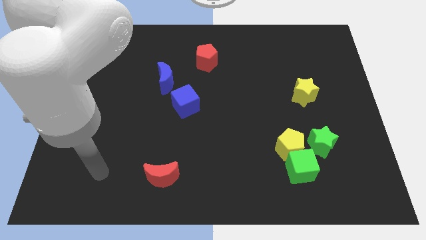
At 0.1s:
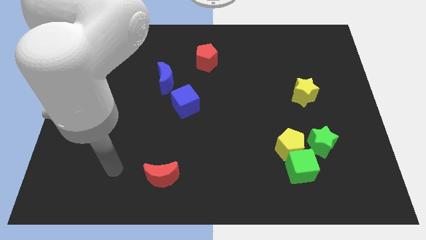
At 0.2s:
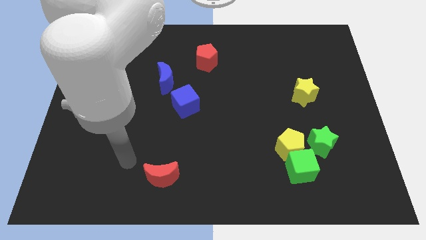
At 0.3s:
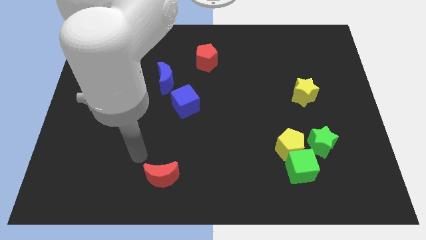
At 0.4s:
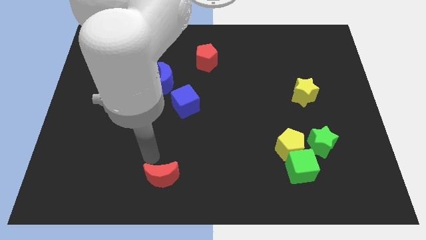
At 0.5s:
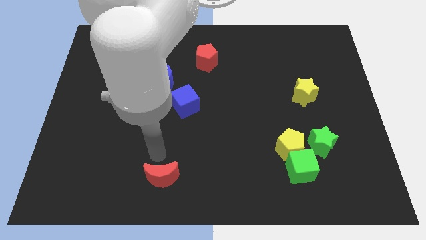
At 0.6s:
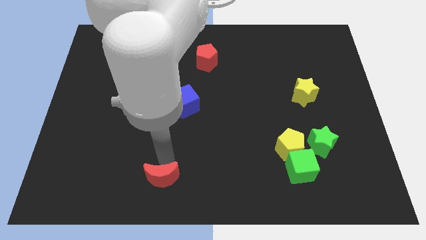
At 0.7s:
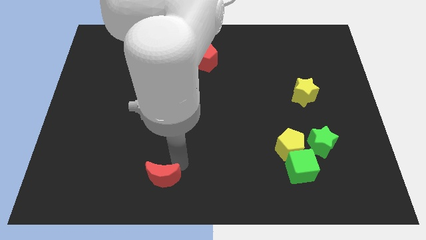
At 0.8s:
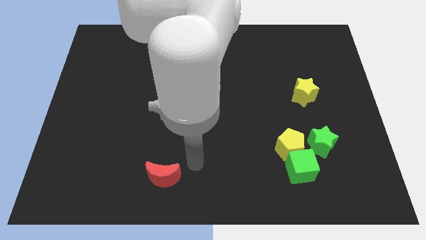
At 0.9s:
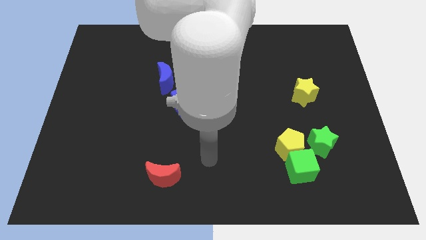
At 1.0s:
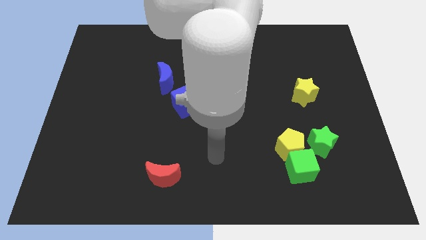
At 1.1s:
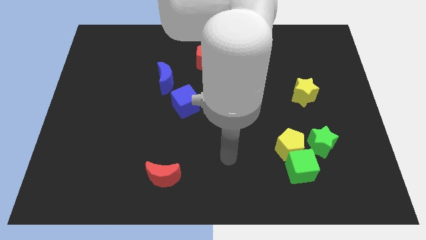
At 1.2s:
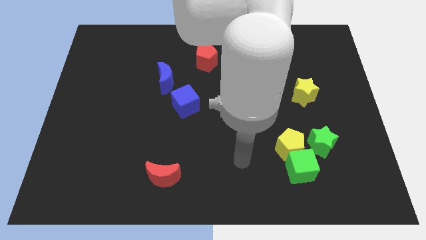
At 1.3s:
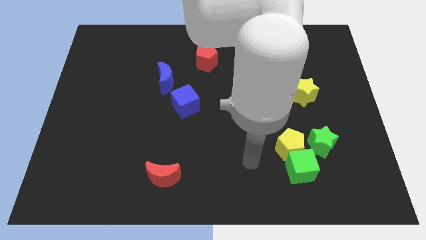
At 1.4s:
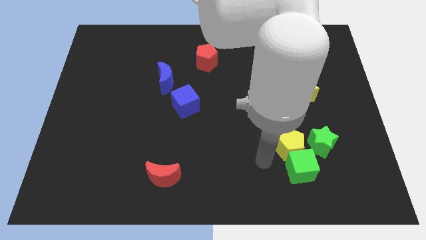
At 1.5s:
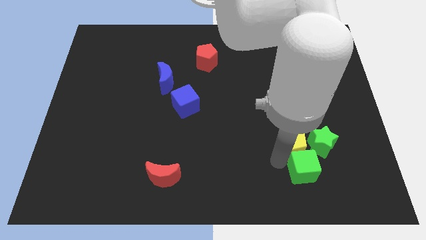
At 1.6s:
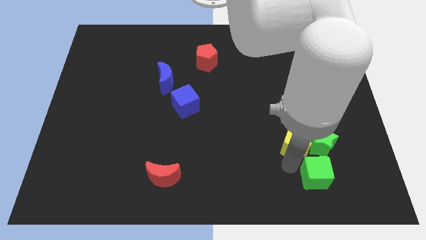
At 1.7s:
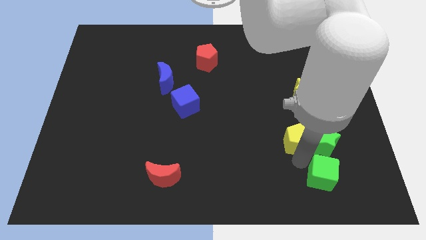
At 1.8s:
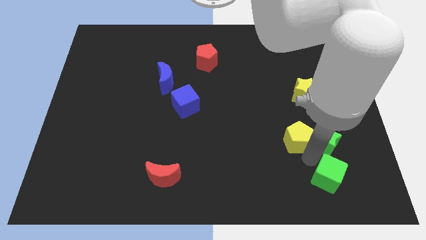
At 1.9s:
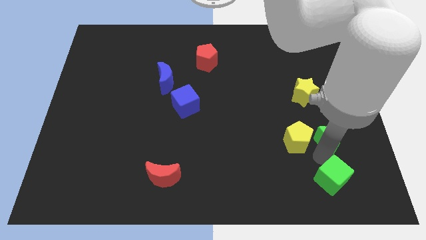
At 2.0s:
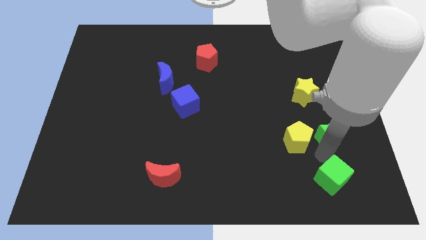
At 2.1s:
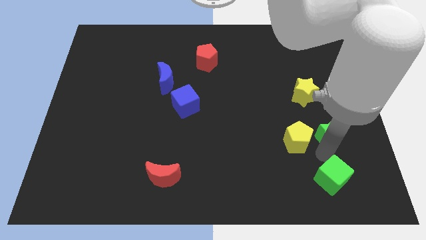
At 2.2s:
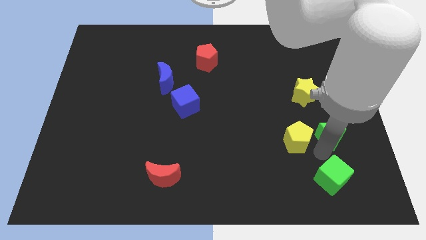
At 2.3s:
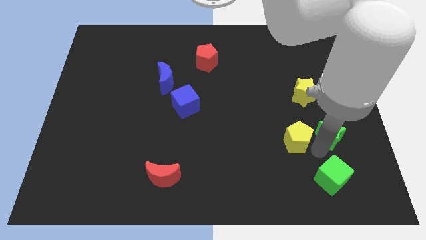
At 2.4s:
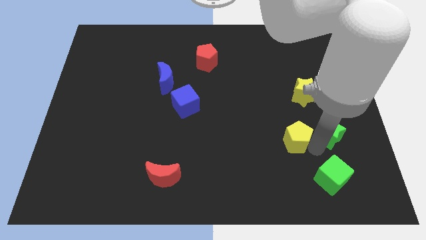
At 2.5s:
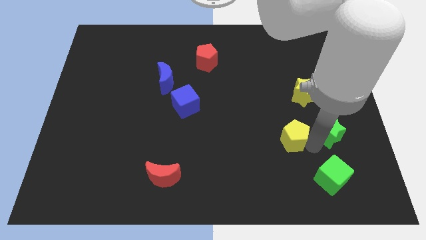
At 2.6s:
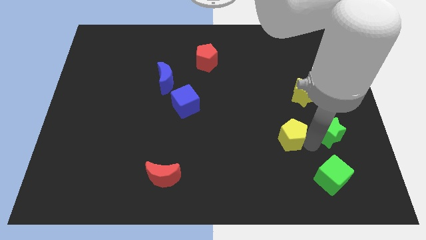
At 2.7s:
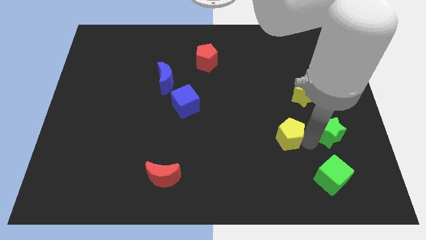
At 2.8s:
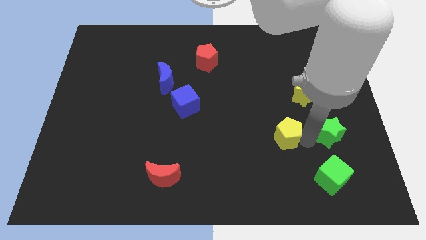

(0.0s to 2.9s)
separate the yellow pentagon from the green cube and green star

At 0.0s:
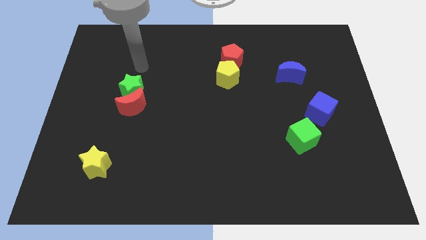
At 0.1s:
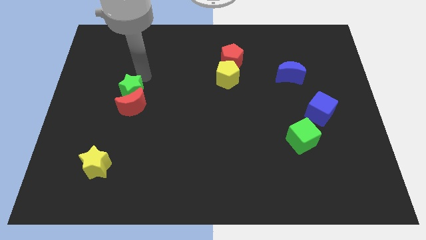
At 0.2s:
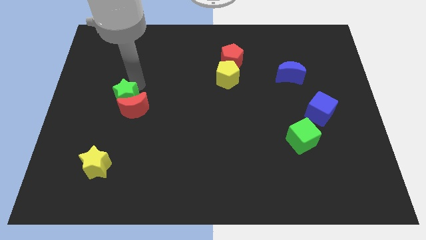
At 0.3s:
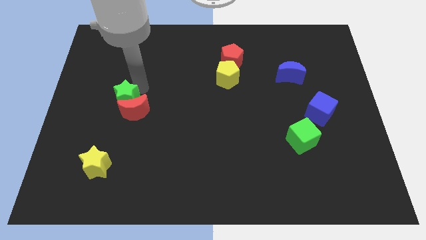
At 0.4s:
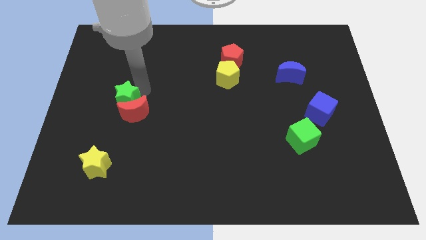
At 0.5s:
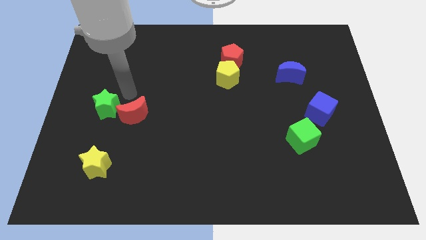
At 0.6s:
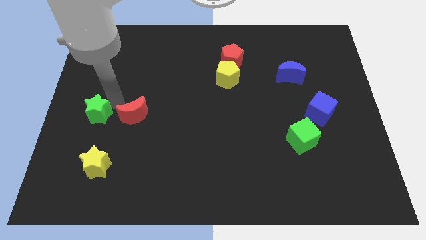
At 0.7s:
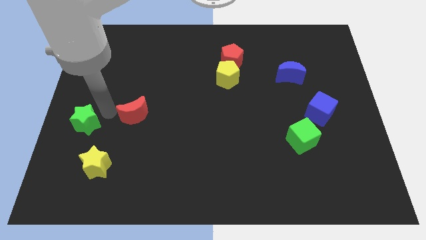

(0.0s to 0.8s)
pull the red moon apart from the green star

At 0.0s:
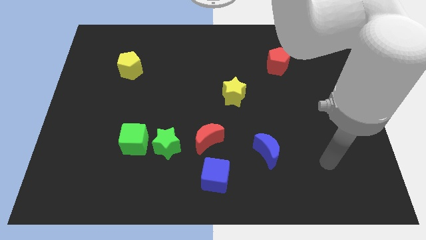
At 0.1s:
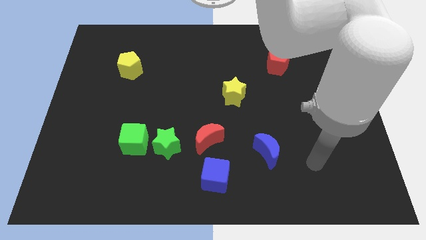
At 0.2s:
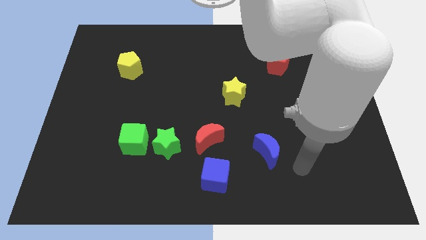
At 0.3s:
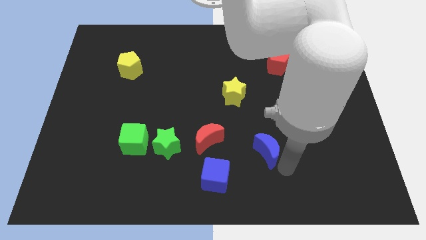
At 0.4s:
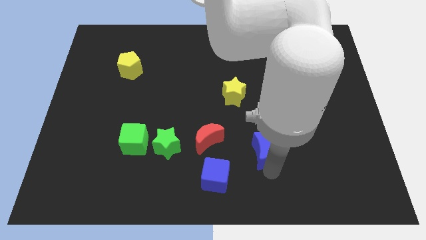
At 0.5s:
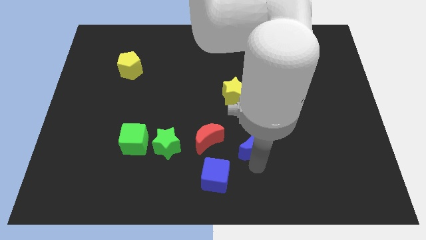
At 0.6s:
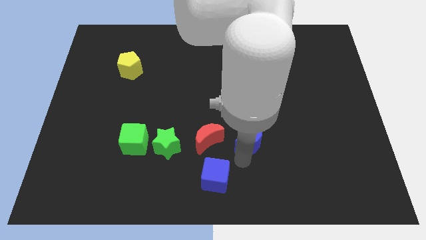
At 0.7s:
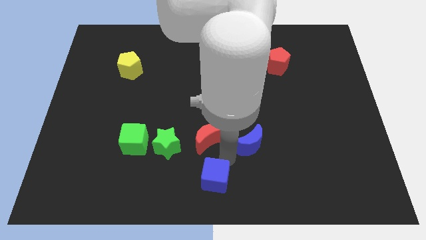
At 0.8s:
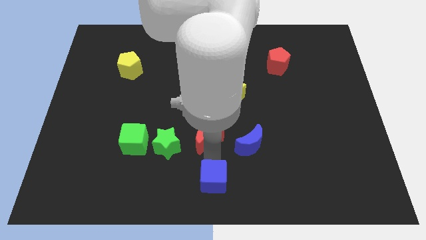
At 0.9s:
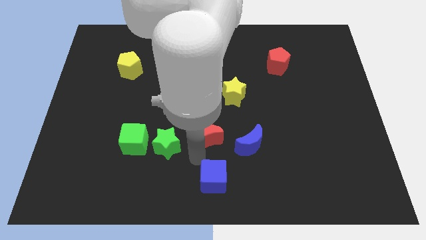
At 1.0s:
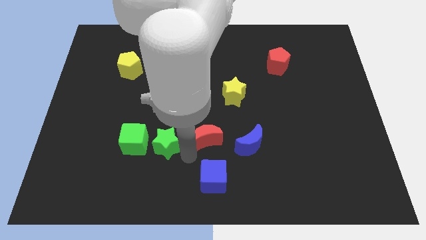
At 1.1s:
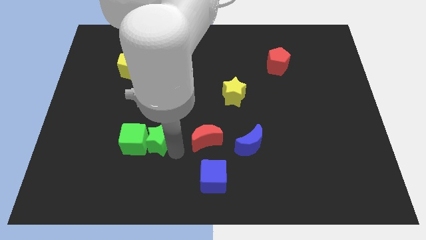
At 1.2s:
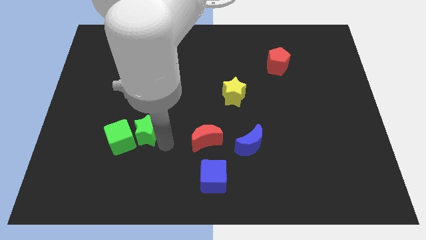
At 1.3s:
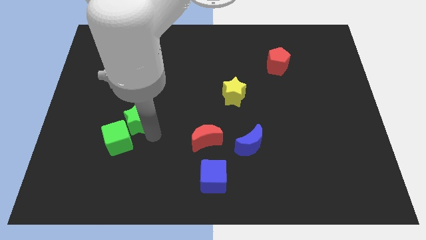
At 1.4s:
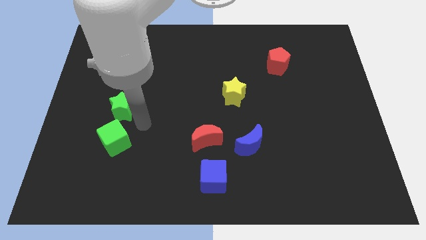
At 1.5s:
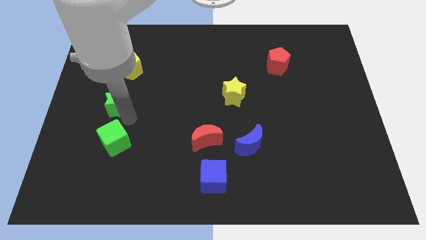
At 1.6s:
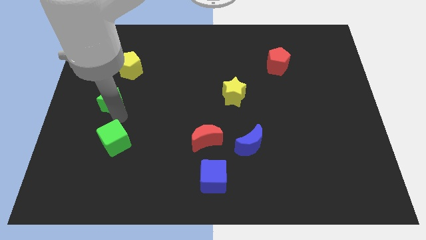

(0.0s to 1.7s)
move the green cube away from the green star

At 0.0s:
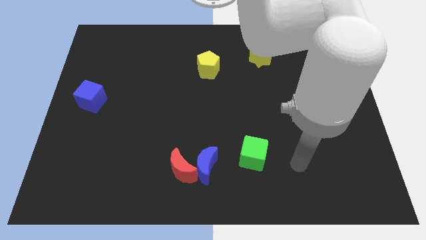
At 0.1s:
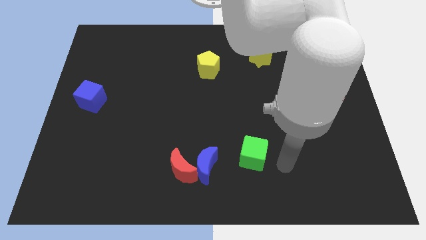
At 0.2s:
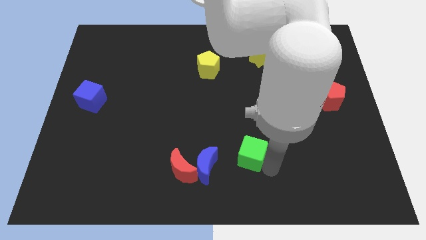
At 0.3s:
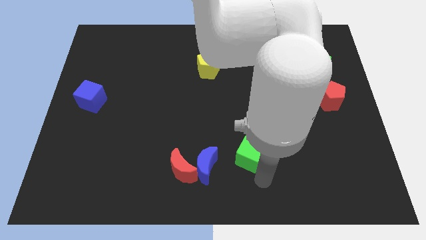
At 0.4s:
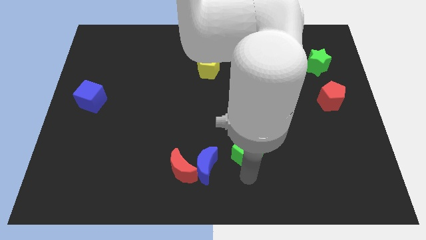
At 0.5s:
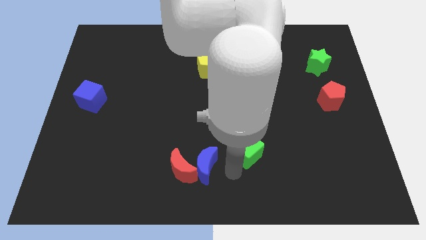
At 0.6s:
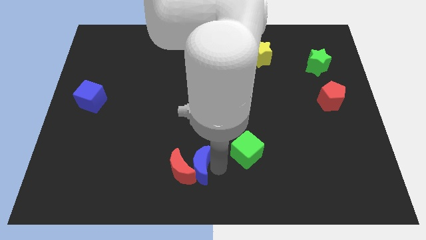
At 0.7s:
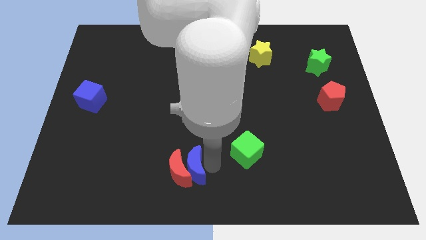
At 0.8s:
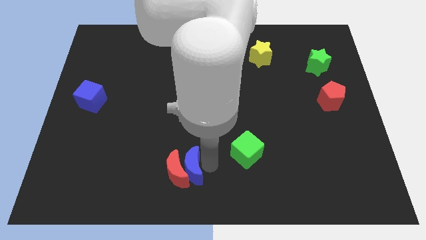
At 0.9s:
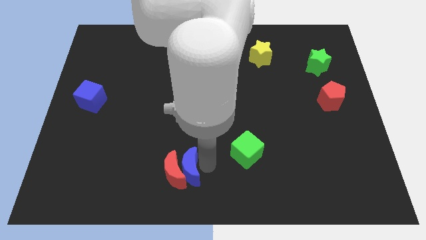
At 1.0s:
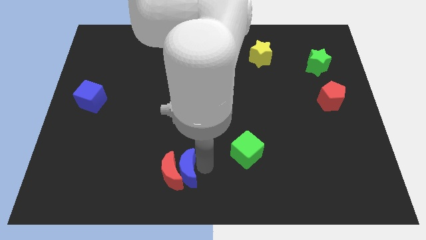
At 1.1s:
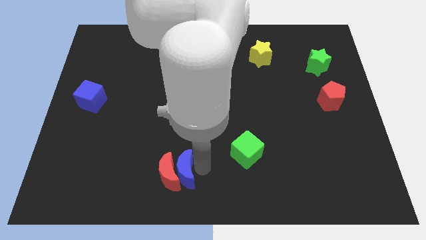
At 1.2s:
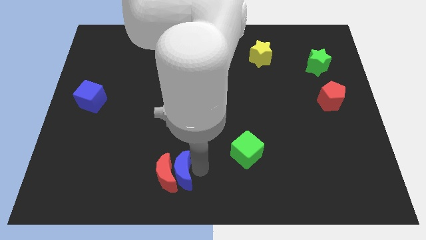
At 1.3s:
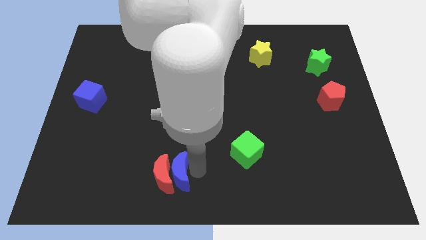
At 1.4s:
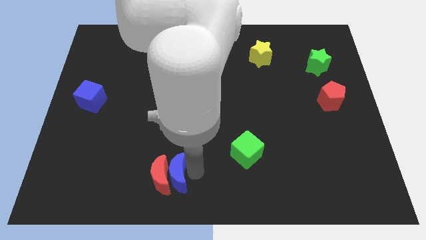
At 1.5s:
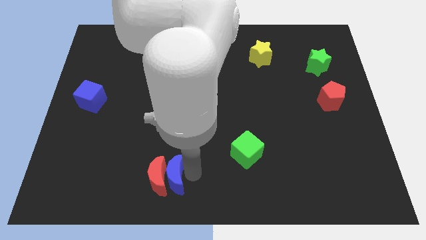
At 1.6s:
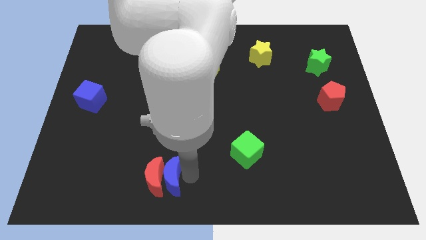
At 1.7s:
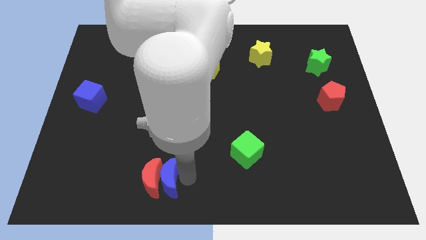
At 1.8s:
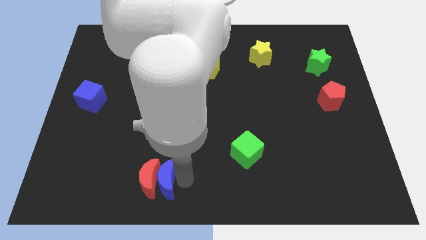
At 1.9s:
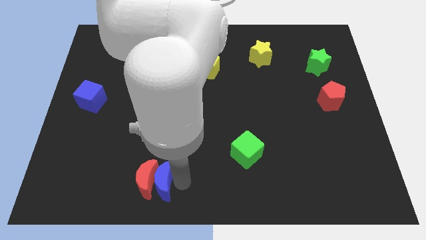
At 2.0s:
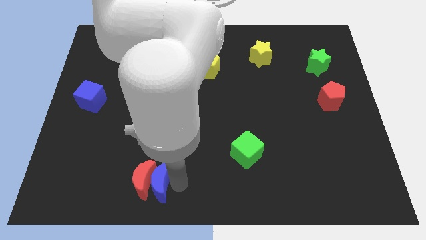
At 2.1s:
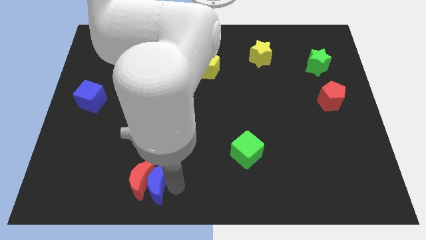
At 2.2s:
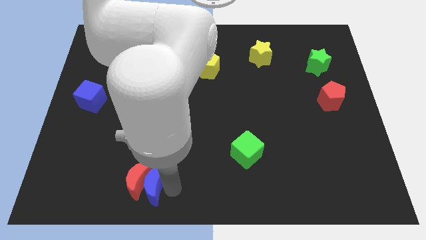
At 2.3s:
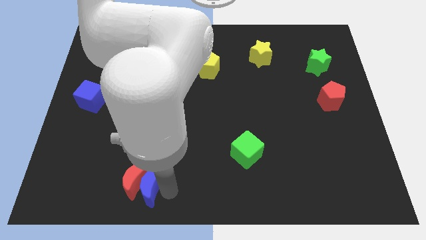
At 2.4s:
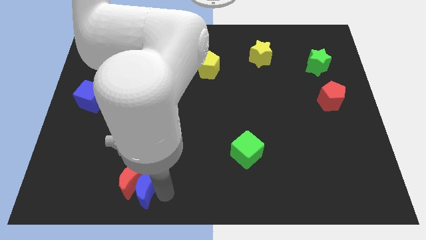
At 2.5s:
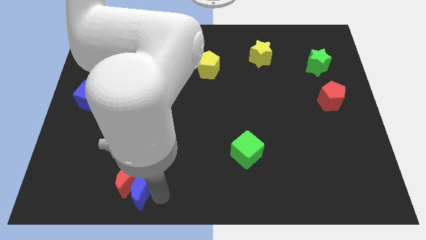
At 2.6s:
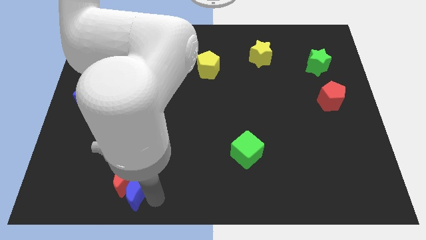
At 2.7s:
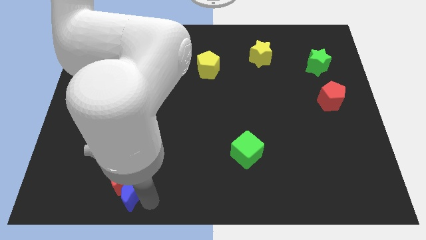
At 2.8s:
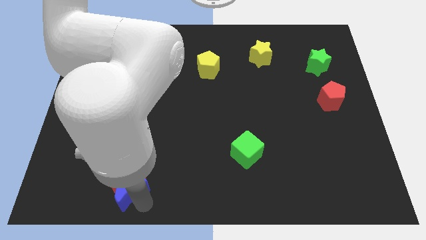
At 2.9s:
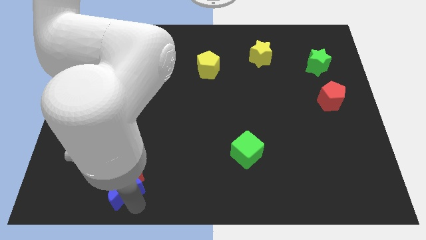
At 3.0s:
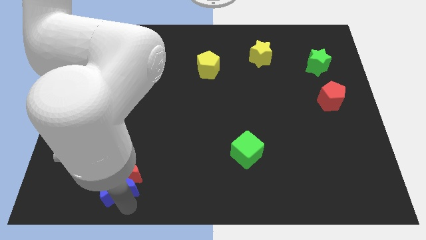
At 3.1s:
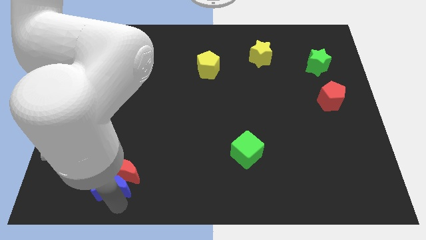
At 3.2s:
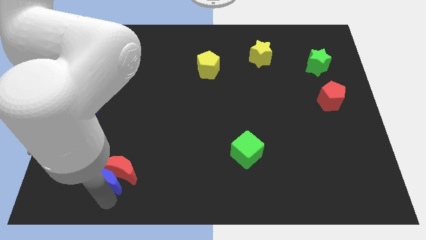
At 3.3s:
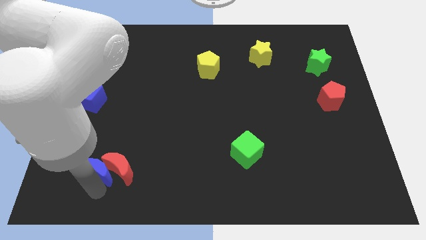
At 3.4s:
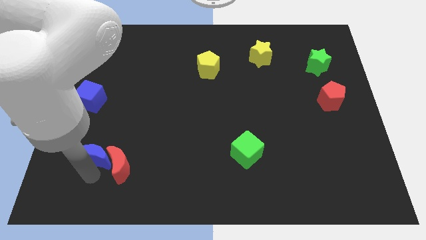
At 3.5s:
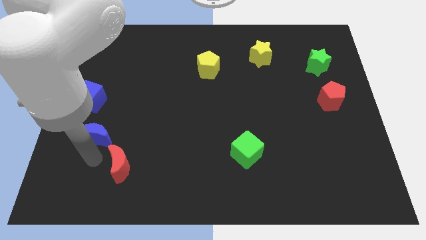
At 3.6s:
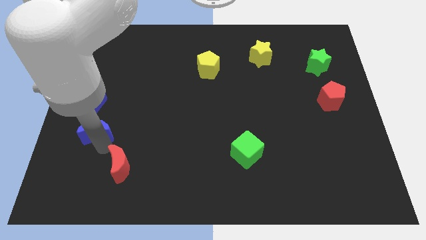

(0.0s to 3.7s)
move the red moon away from the blue moon

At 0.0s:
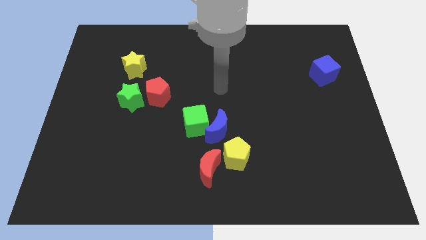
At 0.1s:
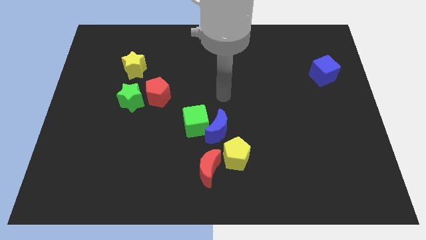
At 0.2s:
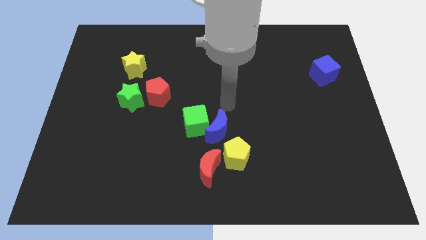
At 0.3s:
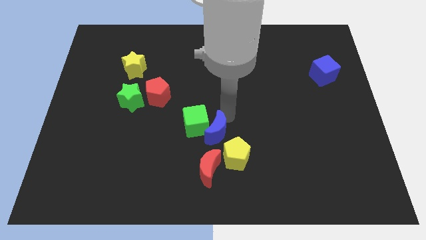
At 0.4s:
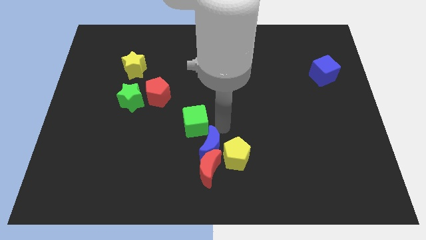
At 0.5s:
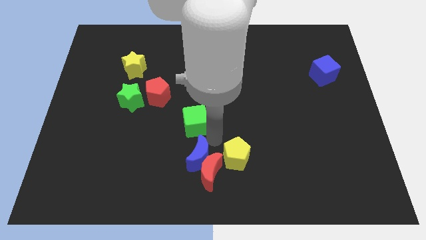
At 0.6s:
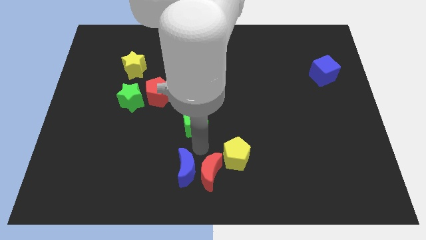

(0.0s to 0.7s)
pull the green cube apart from the blue moon
